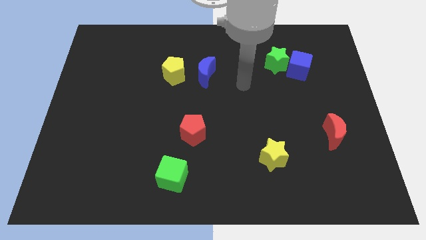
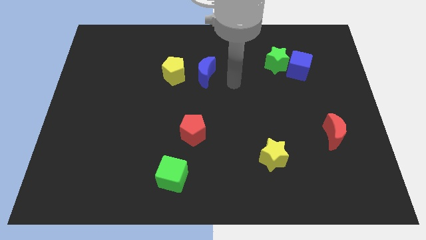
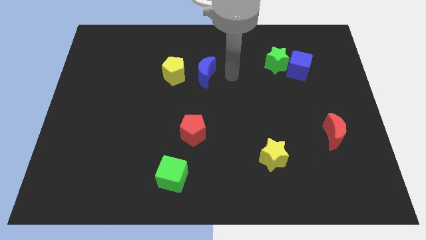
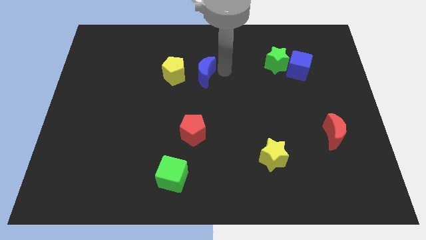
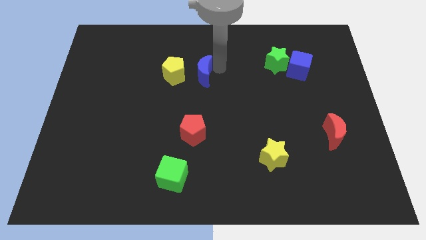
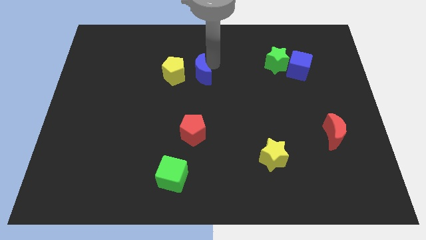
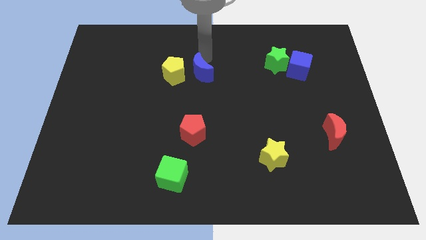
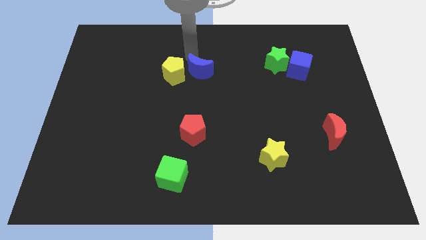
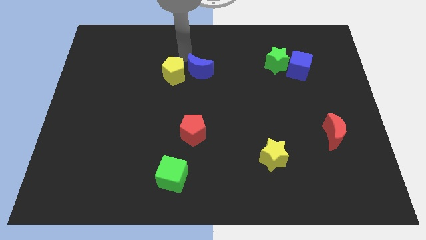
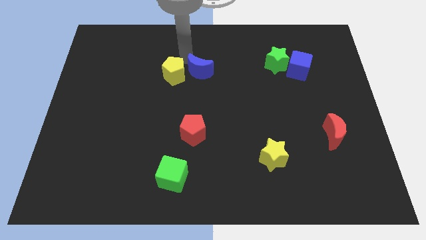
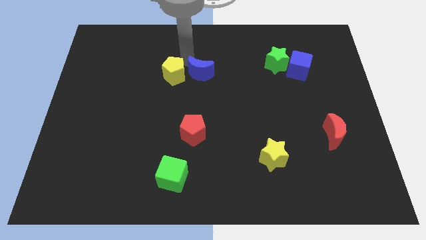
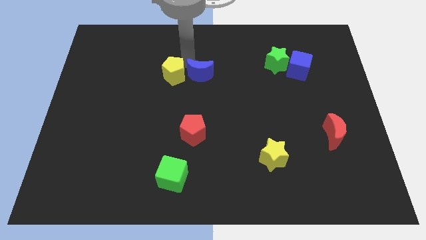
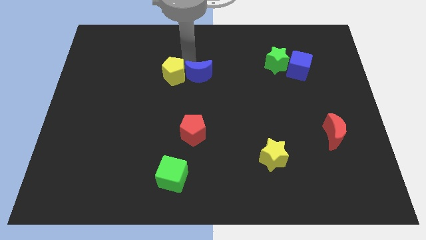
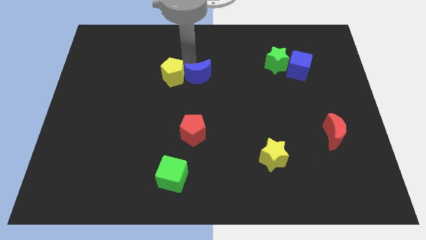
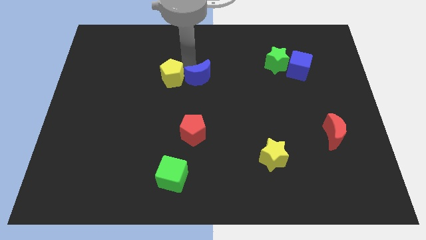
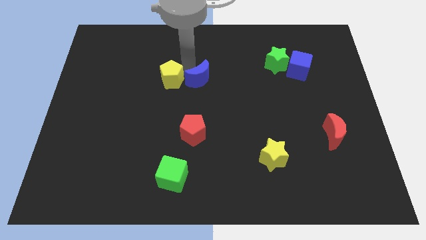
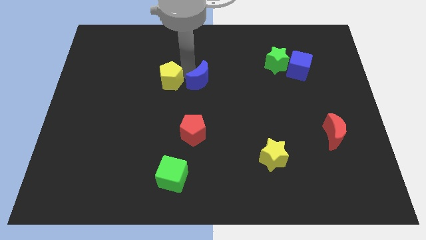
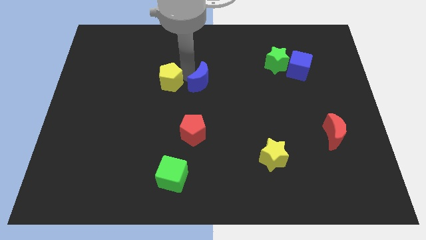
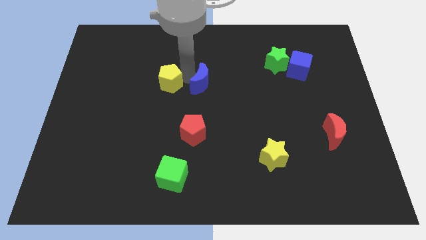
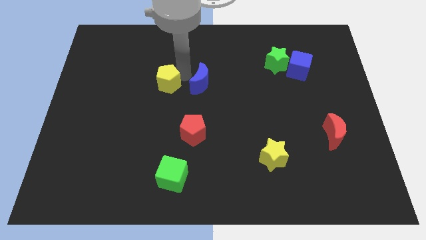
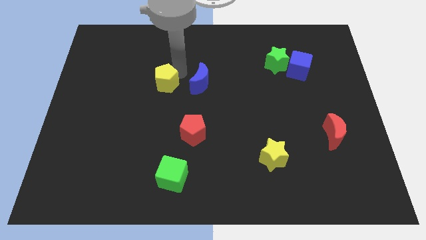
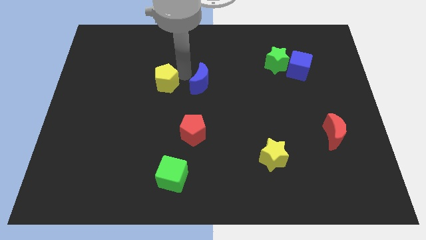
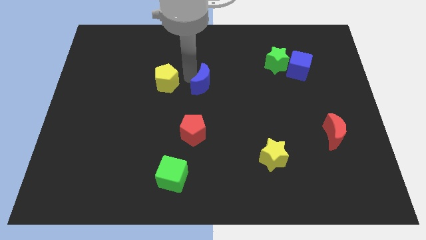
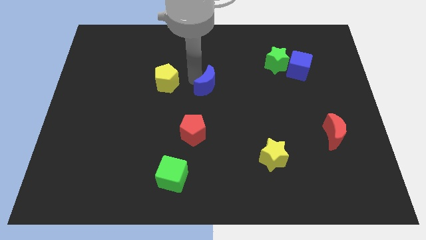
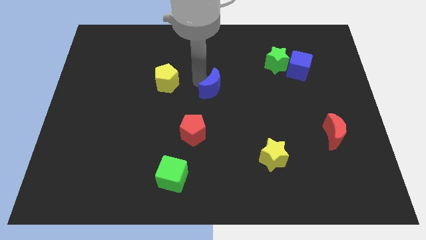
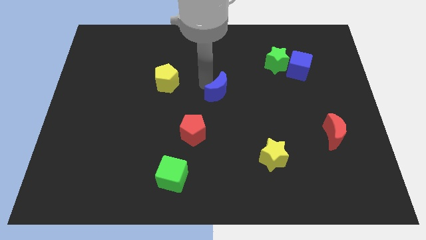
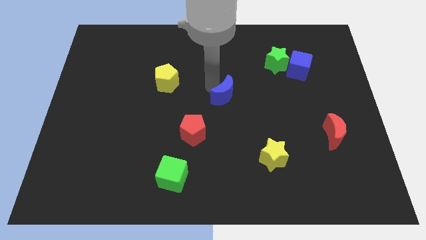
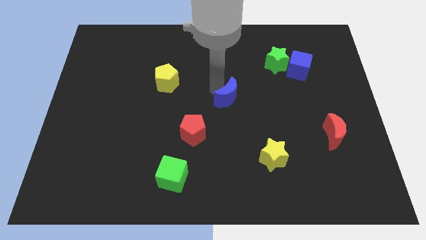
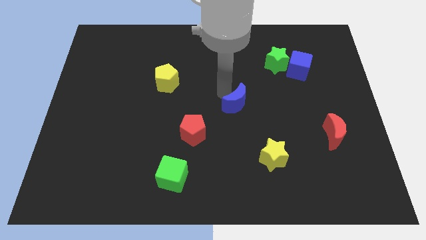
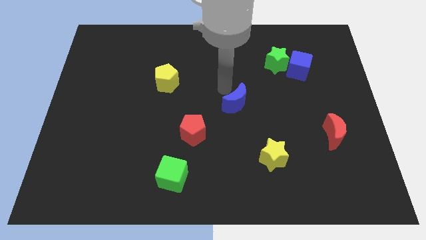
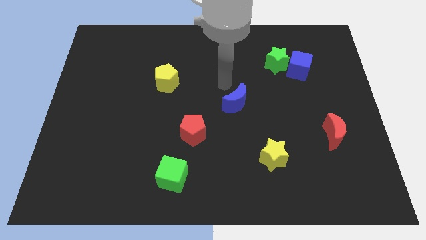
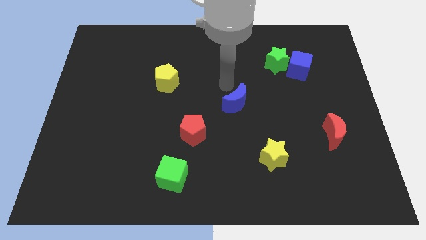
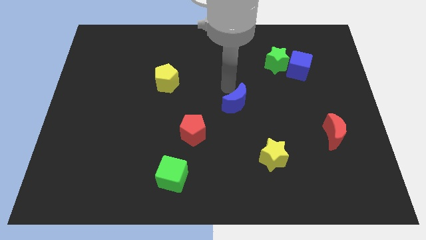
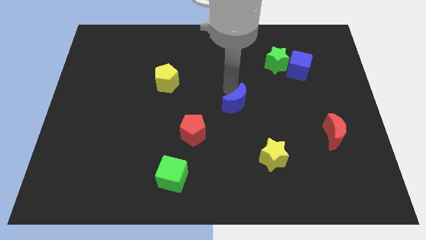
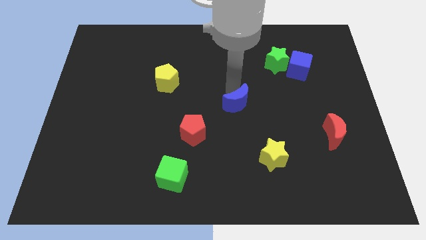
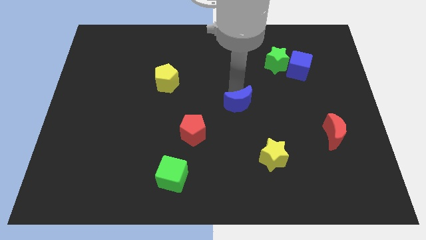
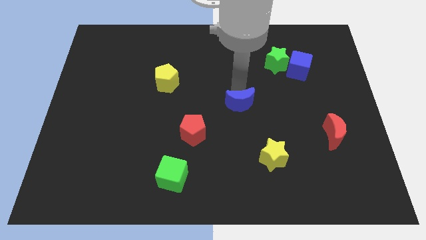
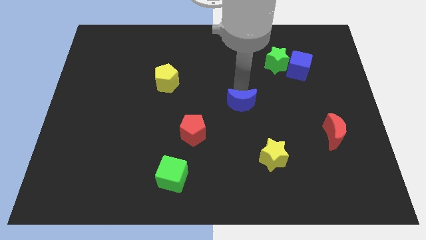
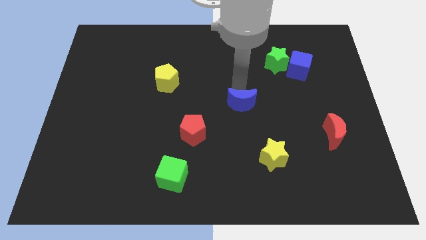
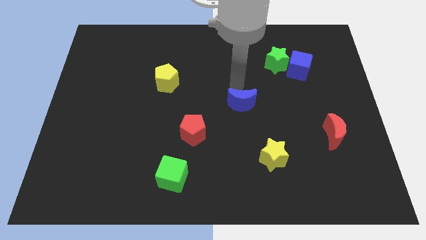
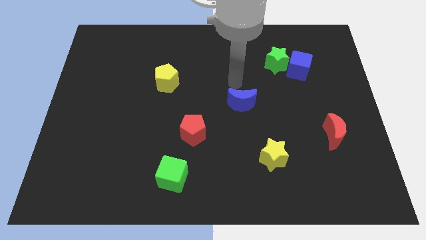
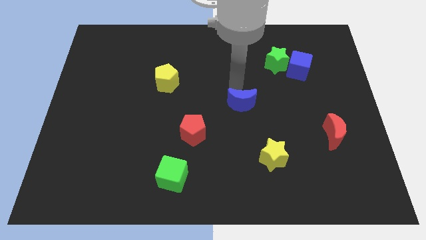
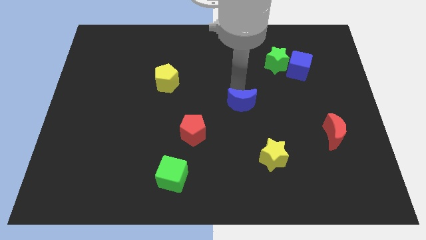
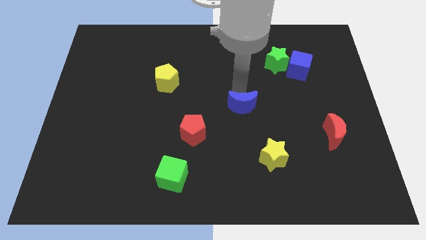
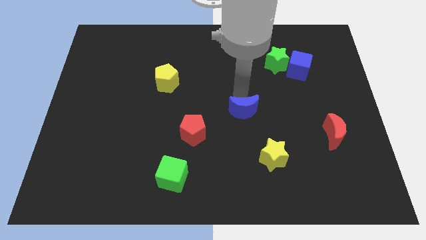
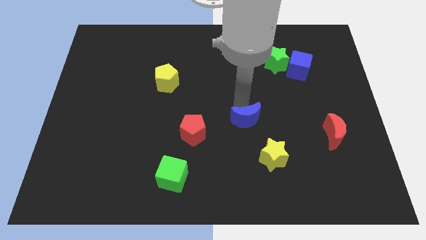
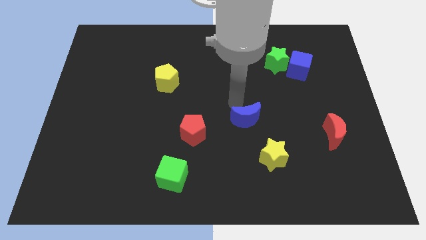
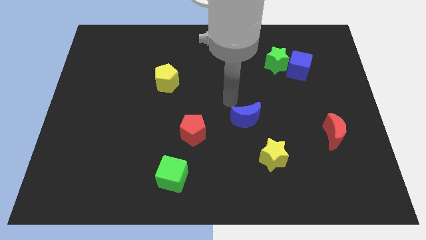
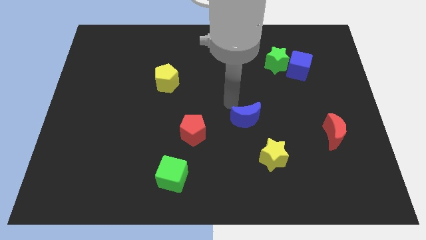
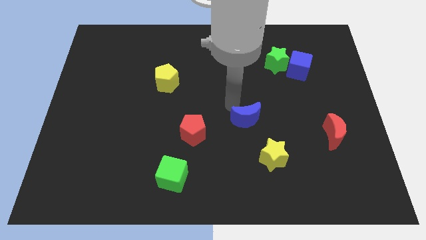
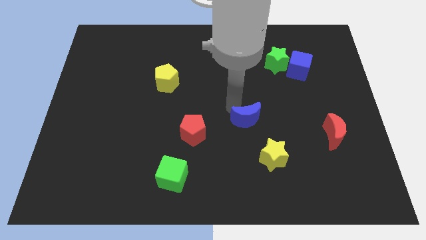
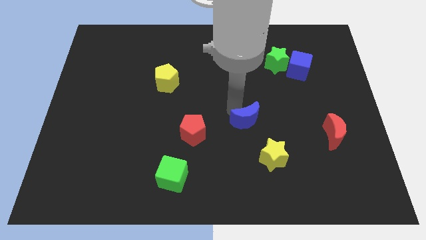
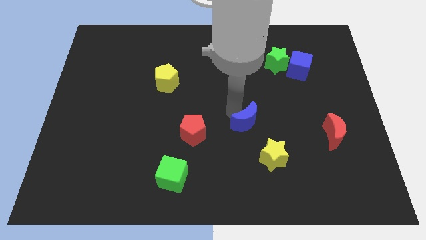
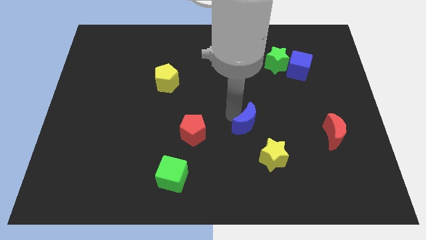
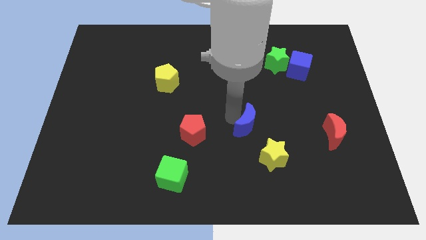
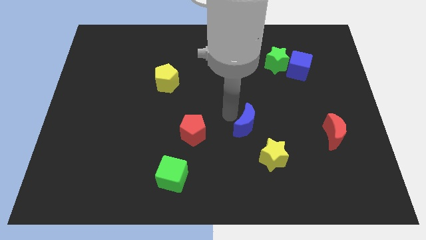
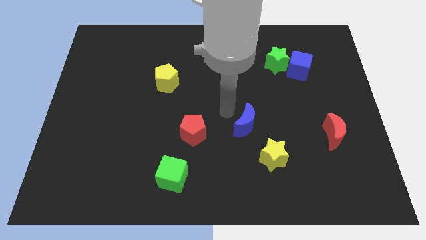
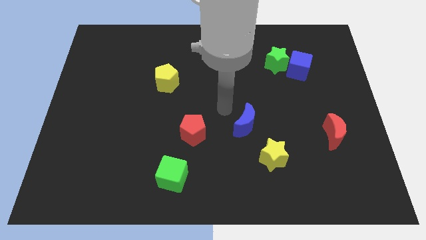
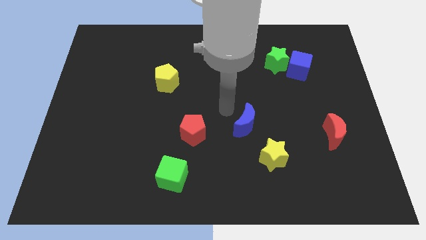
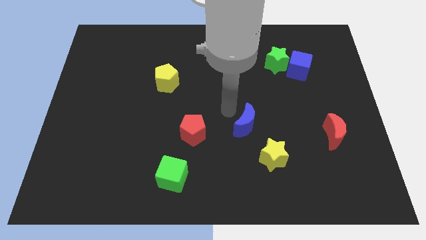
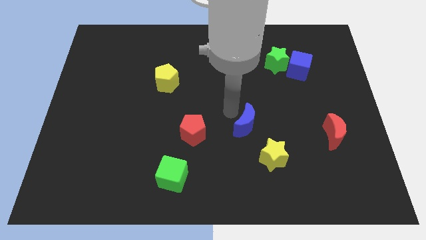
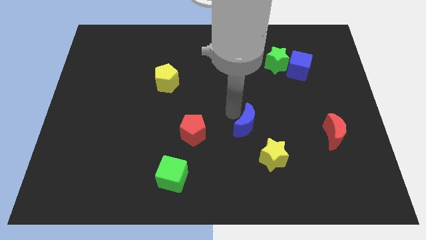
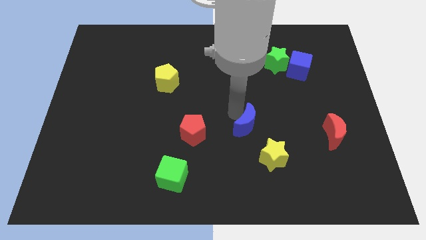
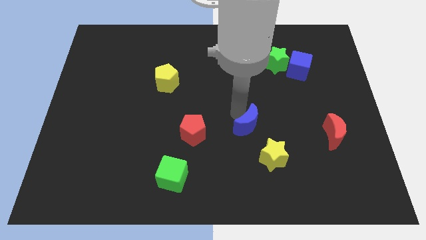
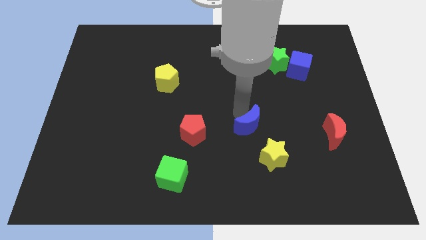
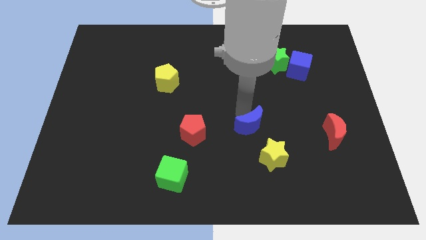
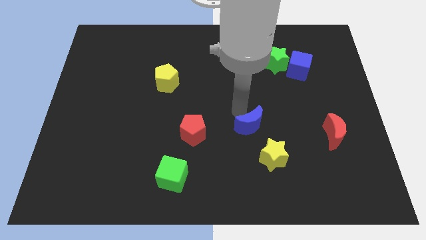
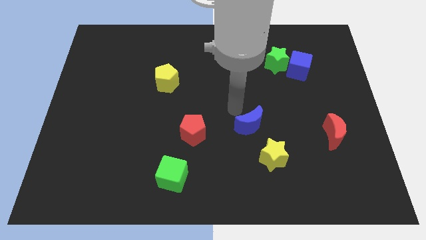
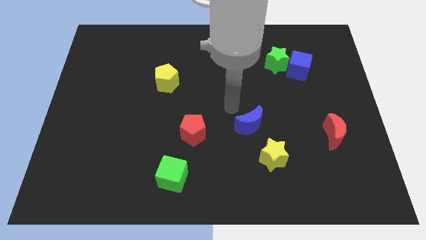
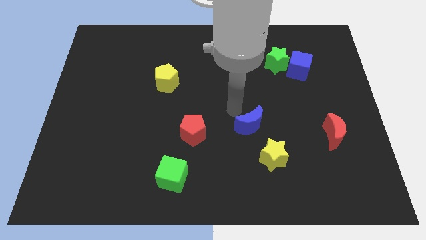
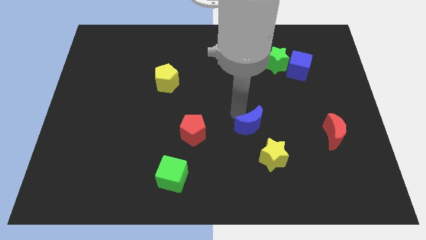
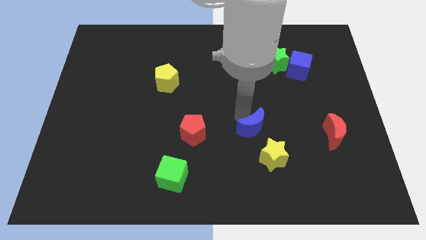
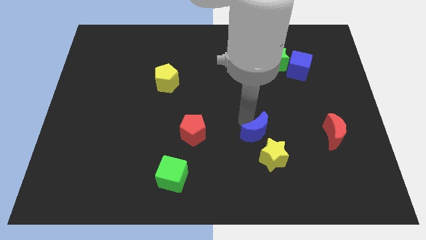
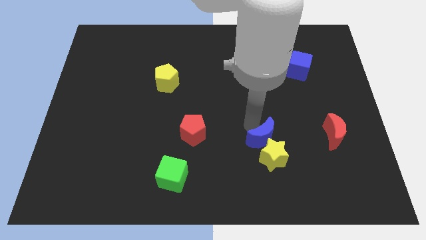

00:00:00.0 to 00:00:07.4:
slide the blue moon towards the yellow star

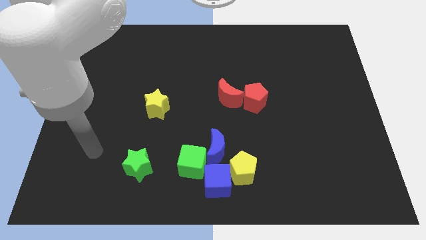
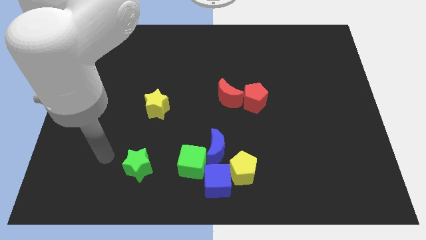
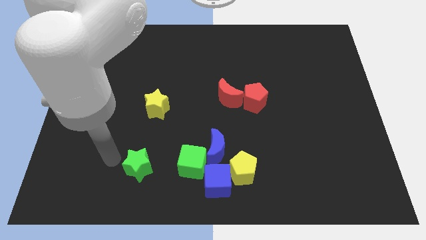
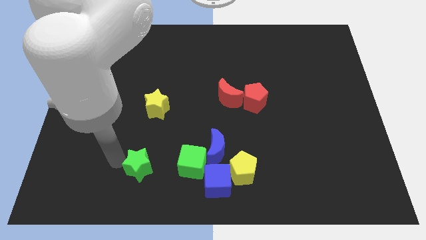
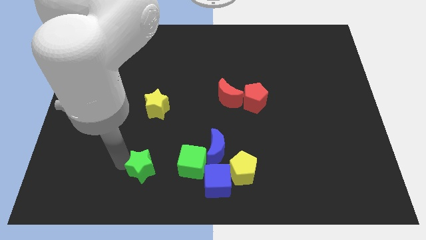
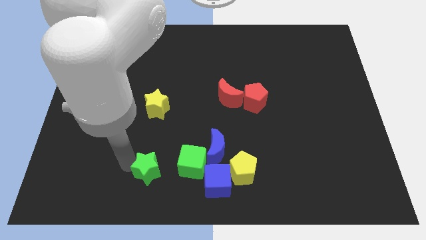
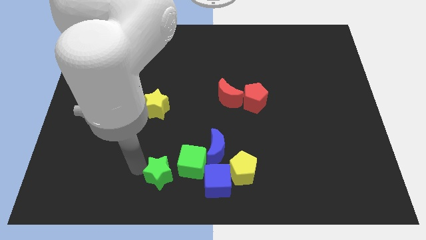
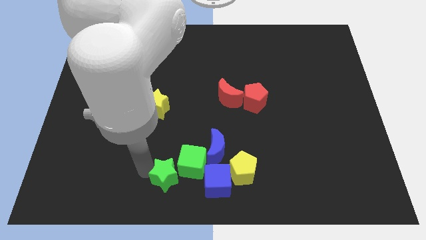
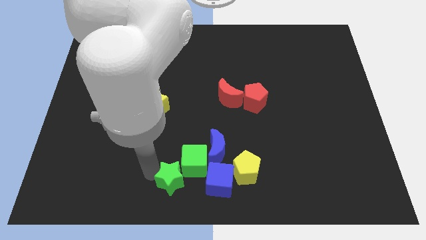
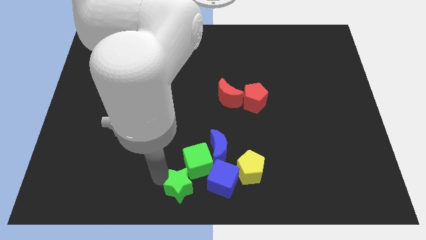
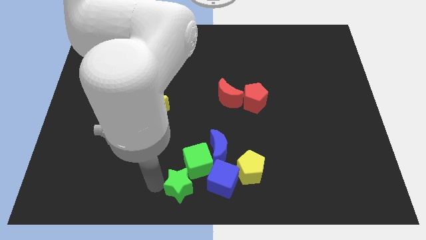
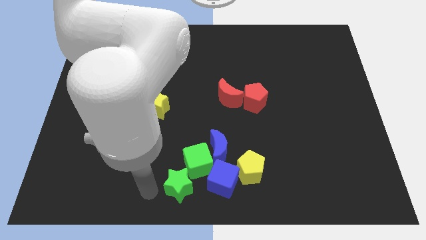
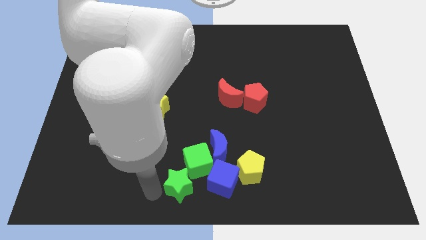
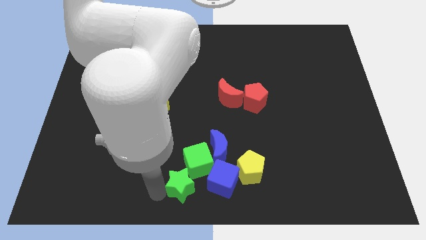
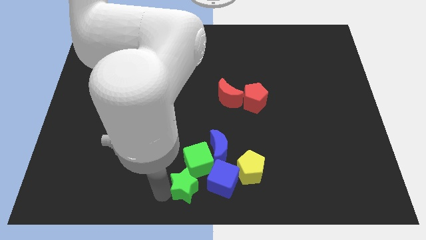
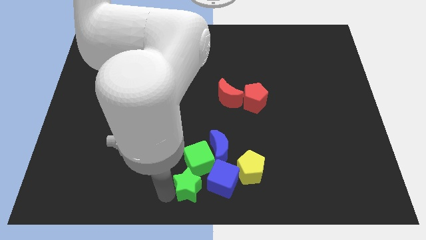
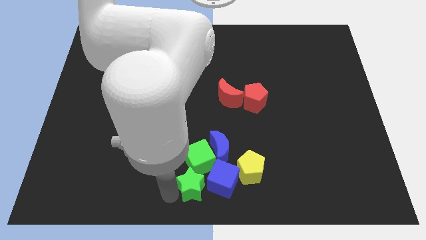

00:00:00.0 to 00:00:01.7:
put the green star next to the blue cube
